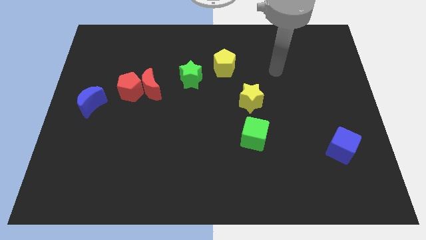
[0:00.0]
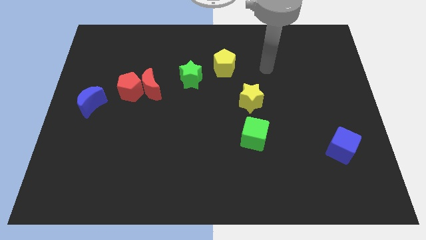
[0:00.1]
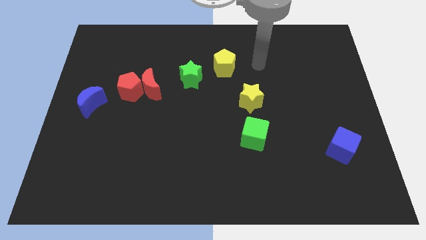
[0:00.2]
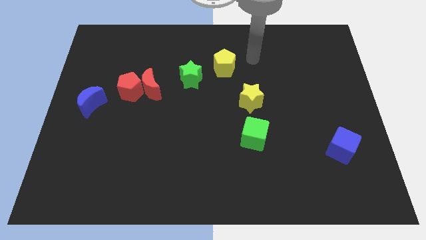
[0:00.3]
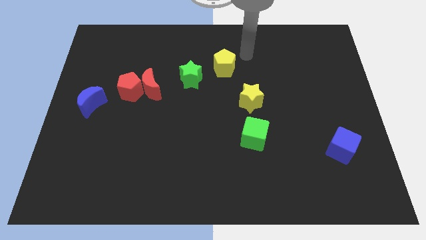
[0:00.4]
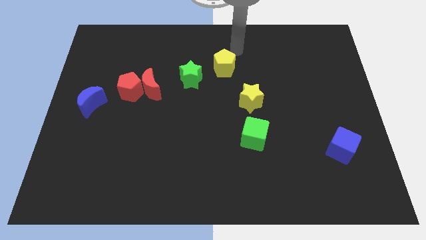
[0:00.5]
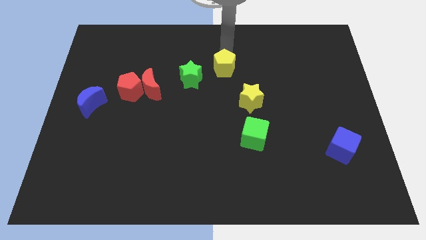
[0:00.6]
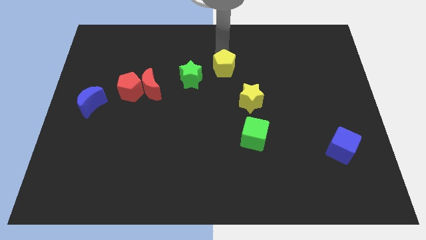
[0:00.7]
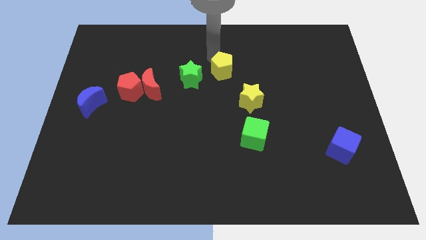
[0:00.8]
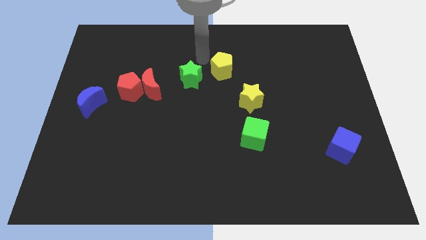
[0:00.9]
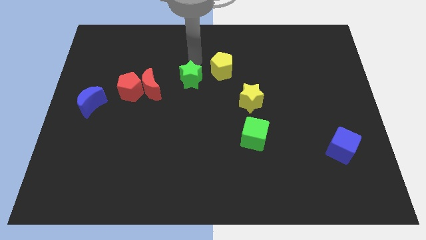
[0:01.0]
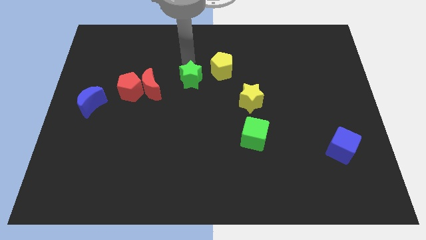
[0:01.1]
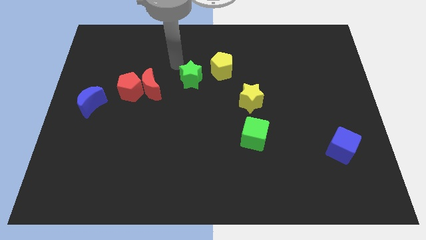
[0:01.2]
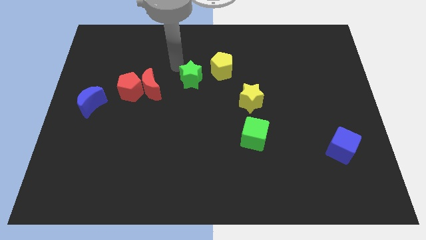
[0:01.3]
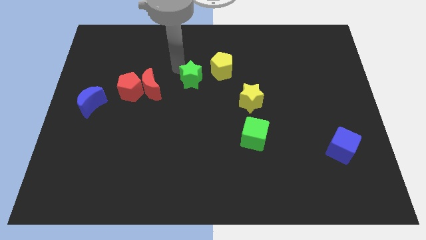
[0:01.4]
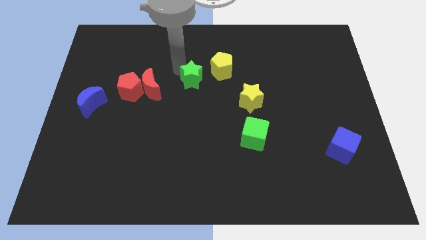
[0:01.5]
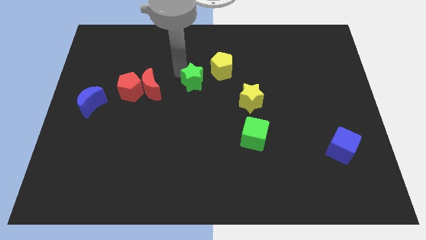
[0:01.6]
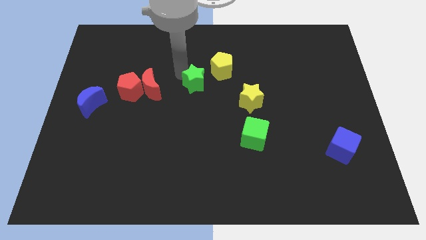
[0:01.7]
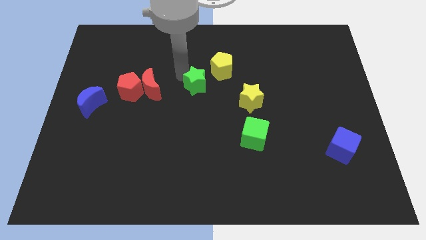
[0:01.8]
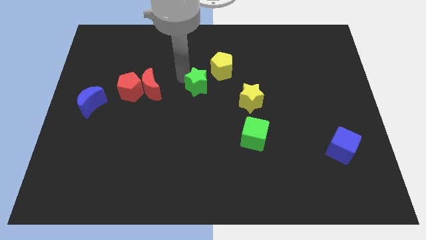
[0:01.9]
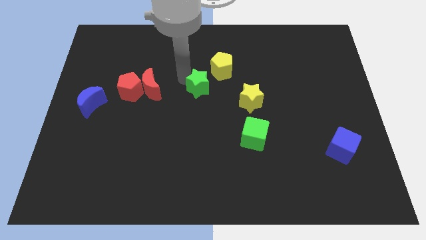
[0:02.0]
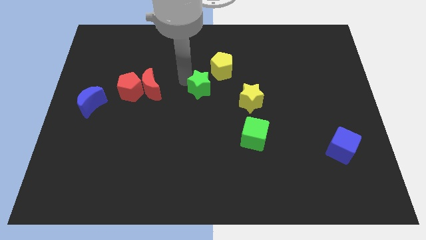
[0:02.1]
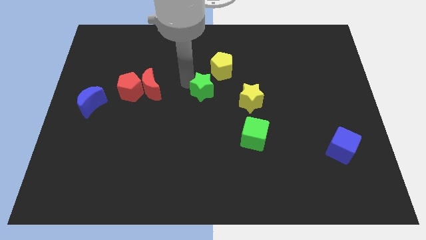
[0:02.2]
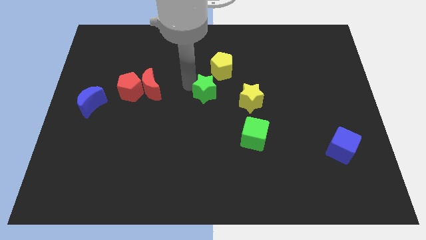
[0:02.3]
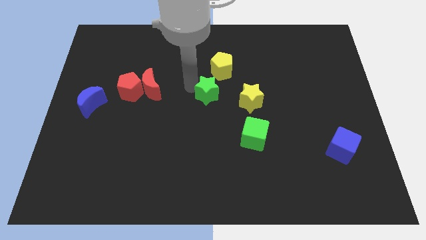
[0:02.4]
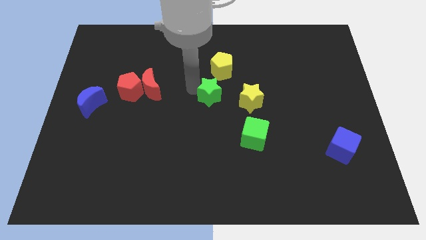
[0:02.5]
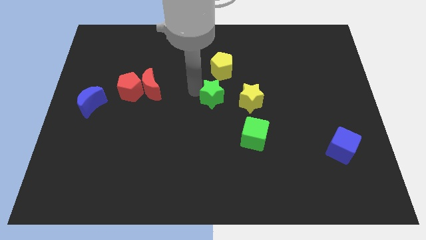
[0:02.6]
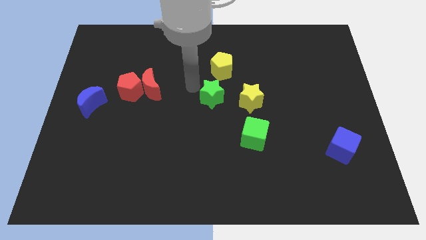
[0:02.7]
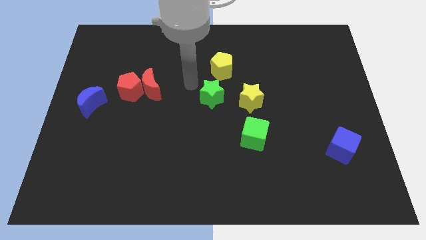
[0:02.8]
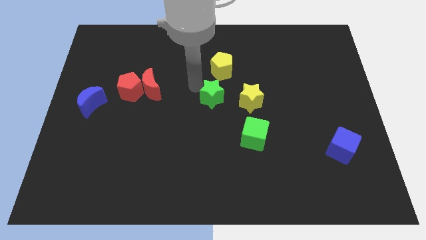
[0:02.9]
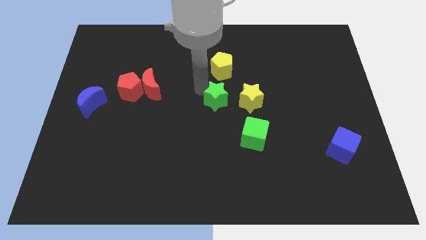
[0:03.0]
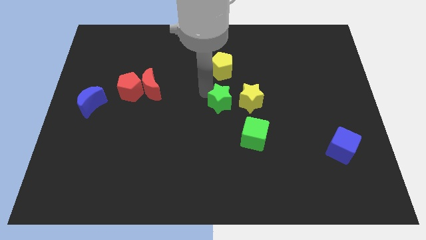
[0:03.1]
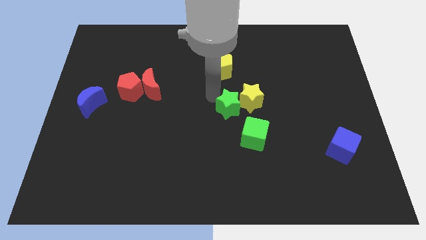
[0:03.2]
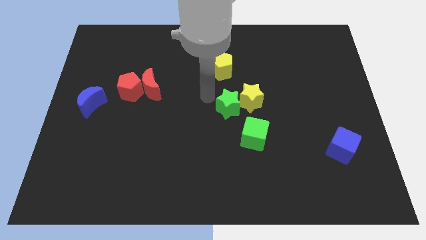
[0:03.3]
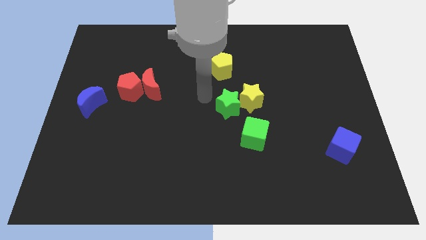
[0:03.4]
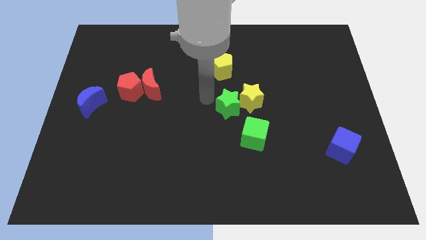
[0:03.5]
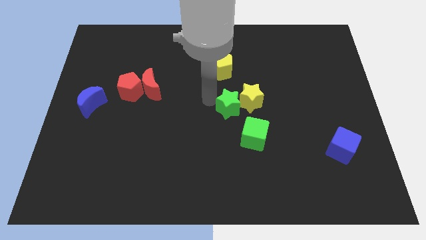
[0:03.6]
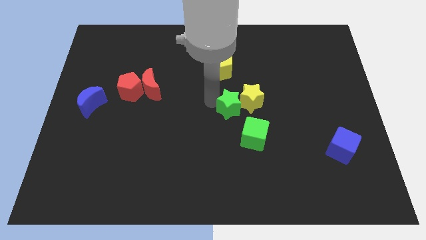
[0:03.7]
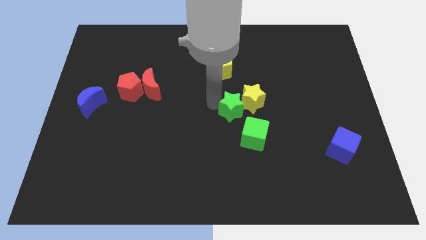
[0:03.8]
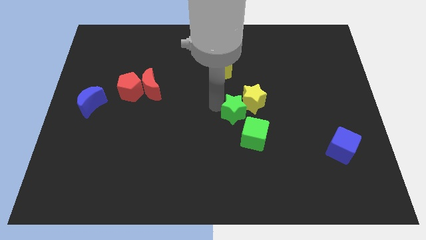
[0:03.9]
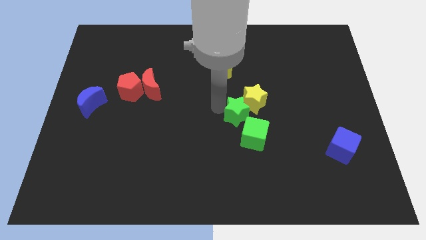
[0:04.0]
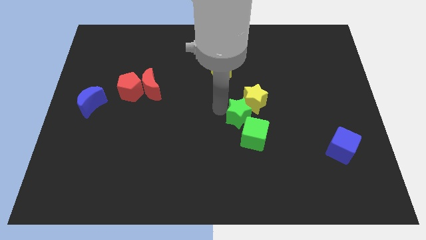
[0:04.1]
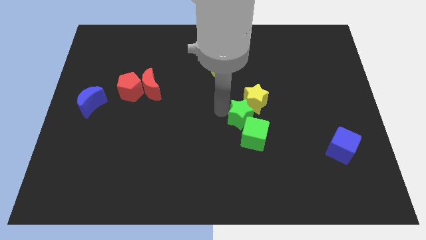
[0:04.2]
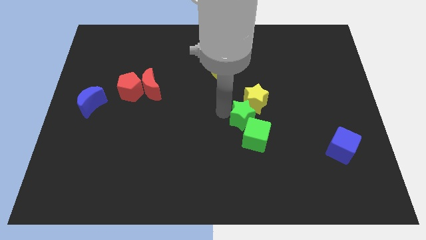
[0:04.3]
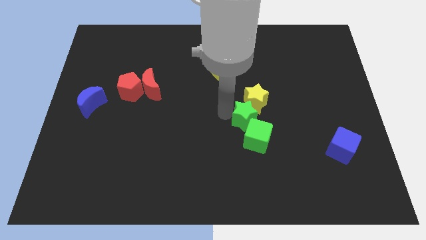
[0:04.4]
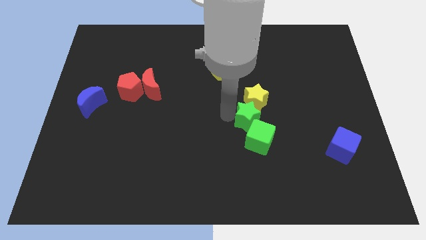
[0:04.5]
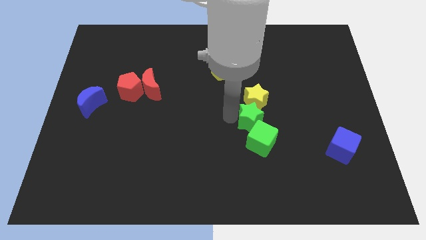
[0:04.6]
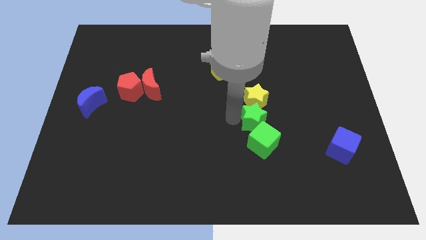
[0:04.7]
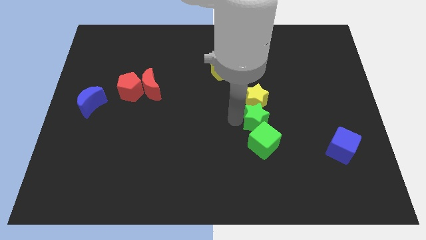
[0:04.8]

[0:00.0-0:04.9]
push the green star down and to the right

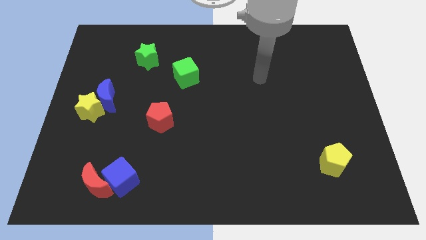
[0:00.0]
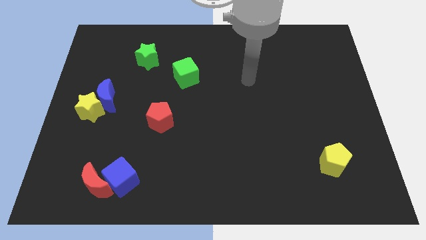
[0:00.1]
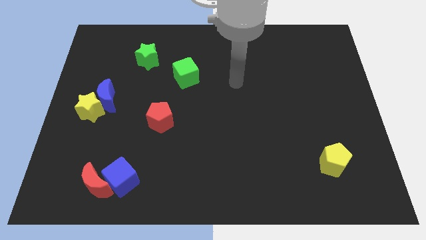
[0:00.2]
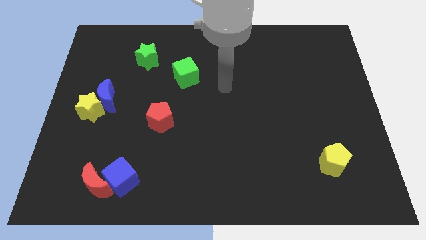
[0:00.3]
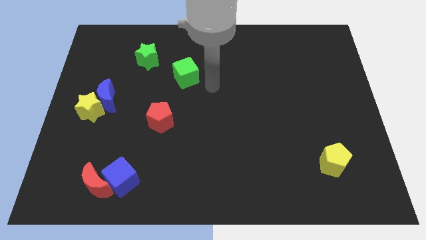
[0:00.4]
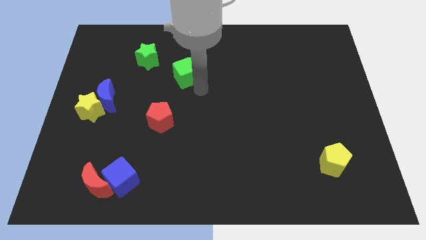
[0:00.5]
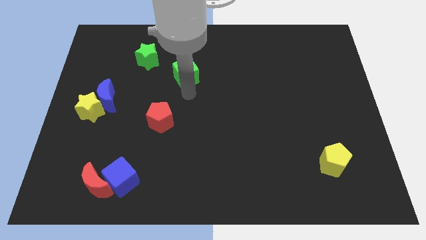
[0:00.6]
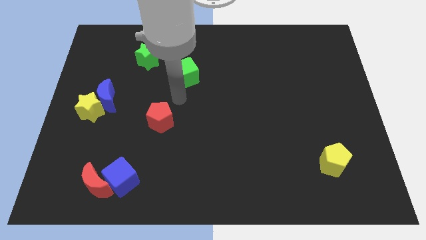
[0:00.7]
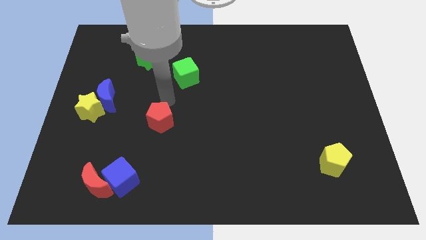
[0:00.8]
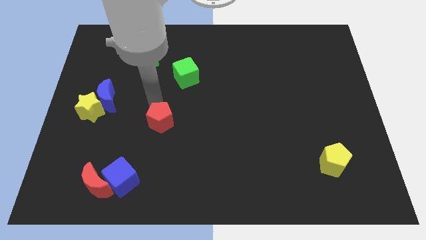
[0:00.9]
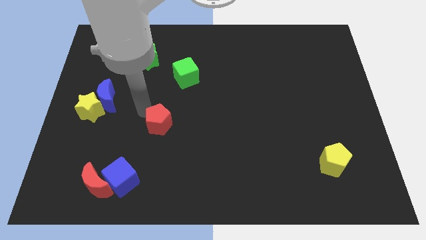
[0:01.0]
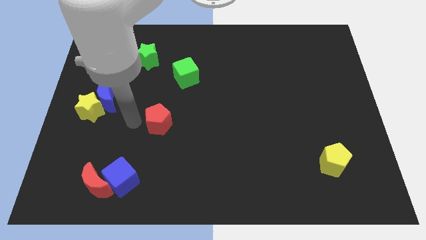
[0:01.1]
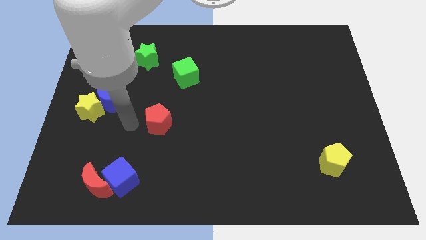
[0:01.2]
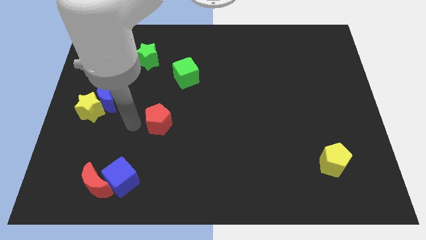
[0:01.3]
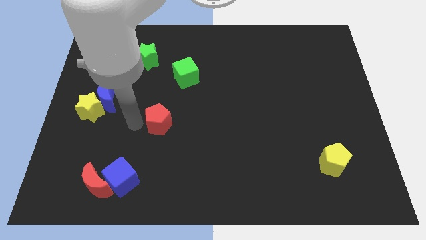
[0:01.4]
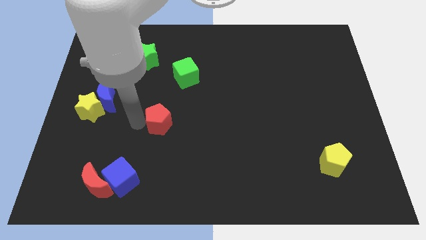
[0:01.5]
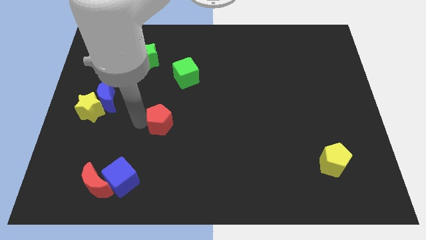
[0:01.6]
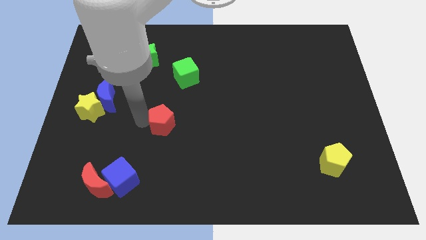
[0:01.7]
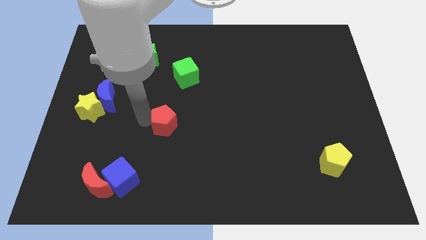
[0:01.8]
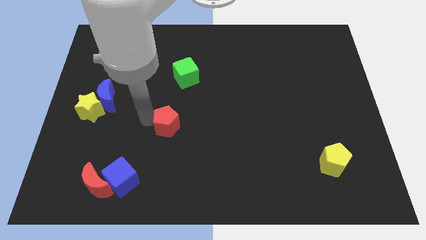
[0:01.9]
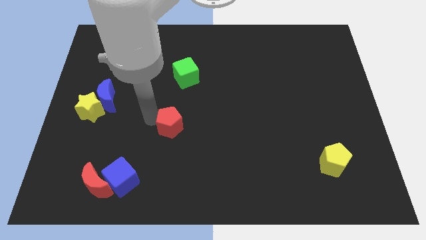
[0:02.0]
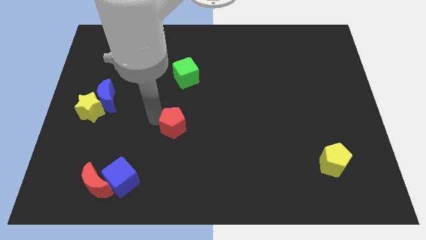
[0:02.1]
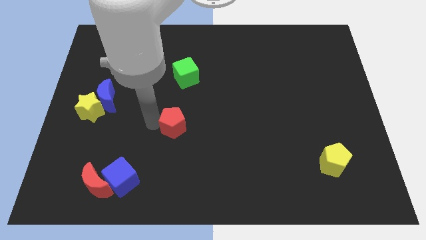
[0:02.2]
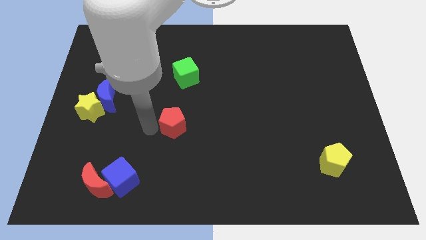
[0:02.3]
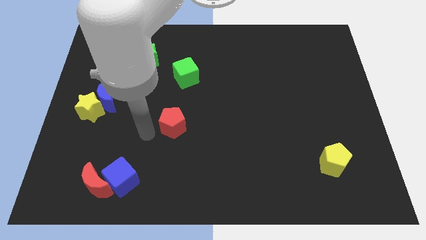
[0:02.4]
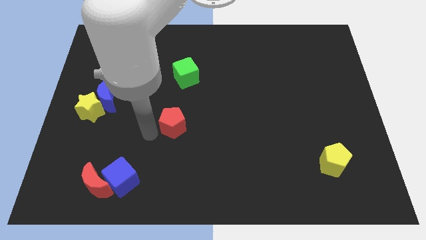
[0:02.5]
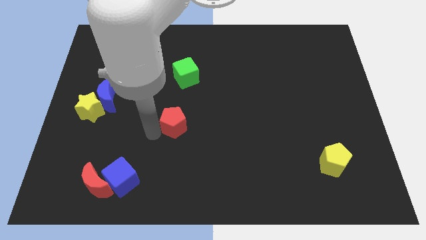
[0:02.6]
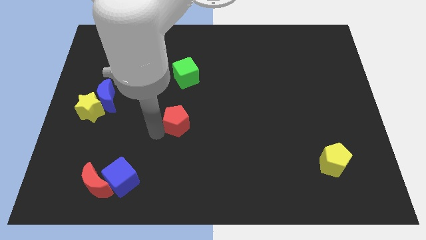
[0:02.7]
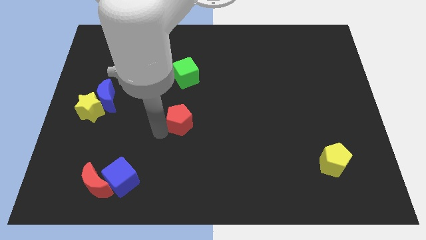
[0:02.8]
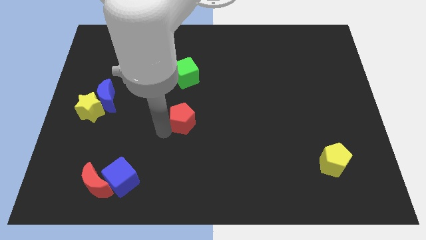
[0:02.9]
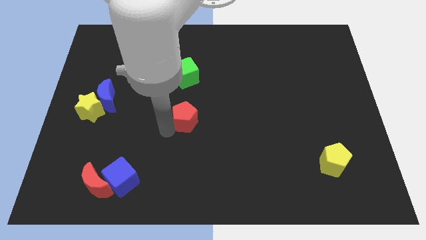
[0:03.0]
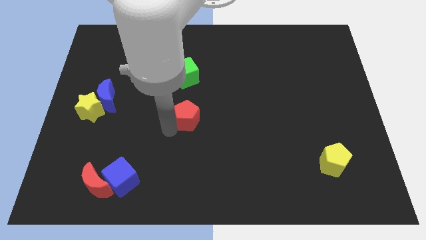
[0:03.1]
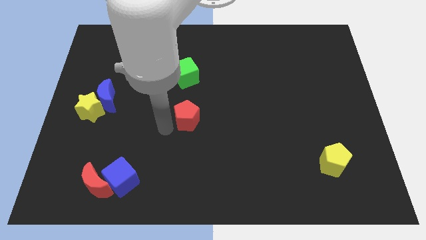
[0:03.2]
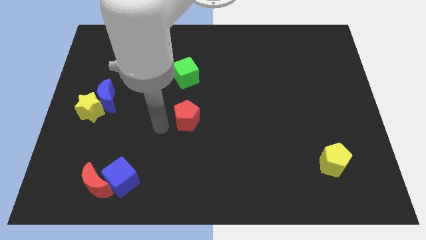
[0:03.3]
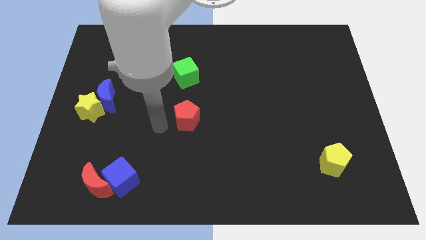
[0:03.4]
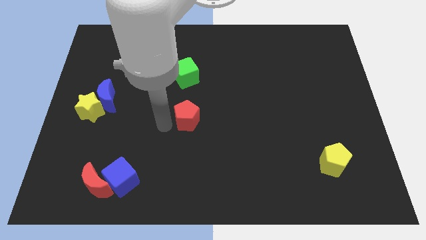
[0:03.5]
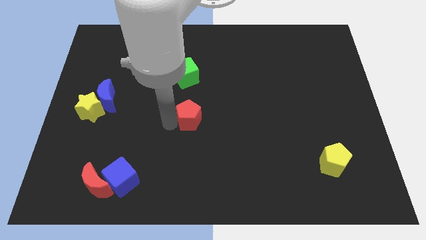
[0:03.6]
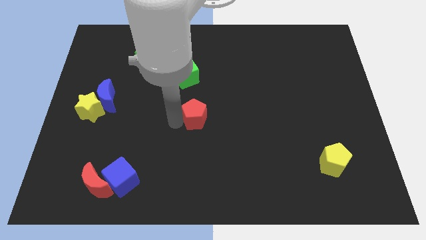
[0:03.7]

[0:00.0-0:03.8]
slightly move the red pentagon right
